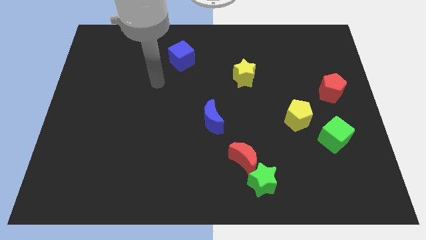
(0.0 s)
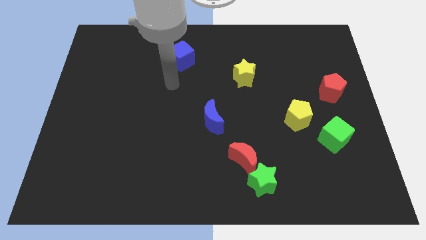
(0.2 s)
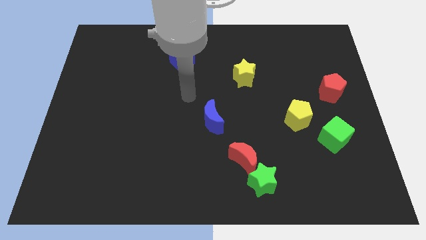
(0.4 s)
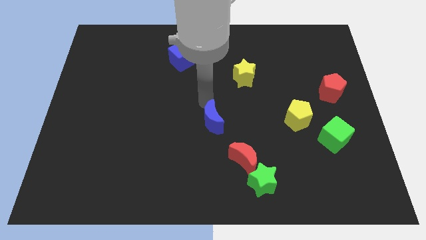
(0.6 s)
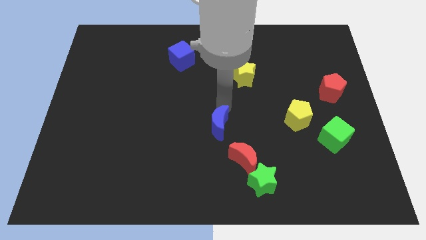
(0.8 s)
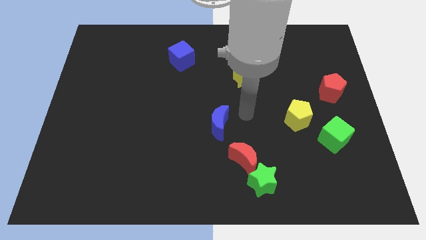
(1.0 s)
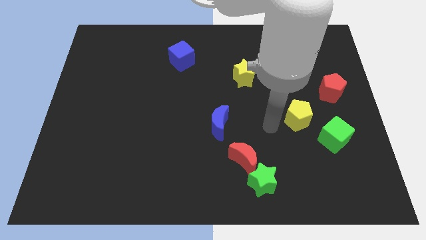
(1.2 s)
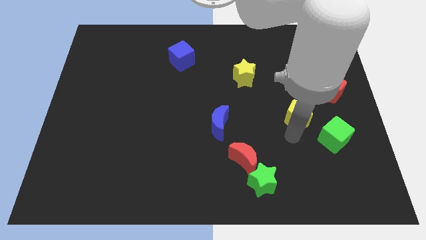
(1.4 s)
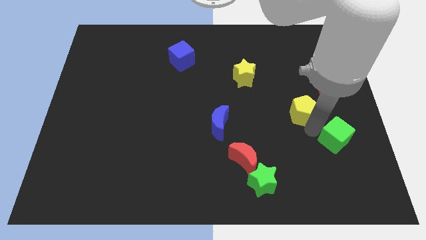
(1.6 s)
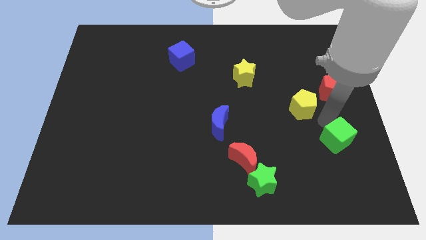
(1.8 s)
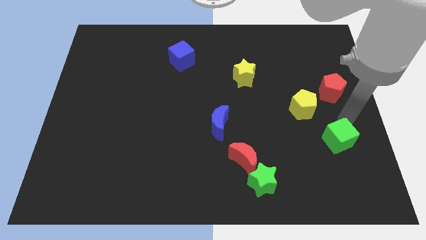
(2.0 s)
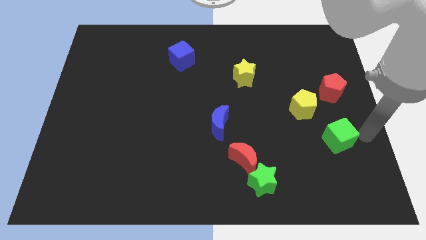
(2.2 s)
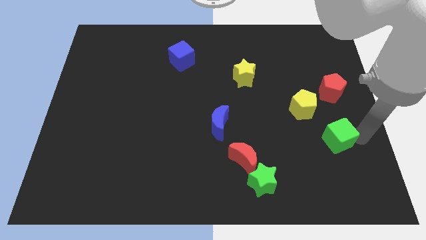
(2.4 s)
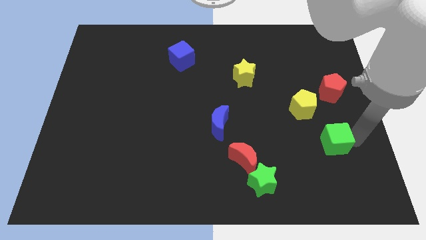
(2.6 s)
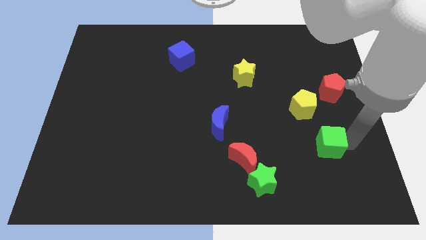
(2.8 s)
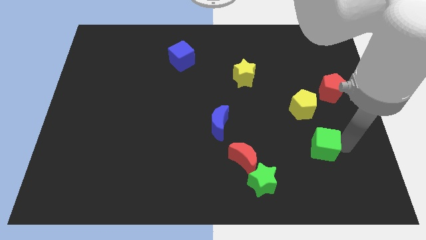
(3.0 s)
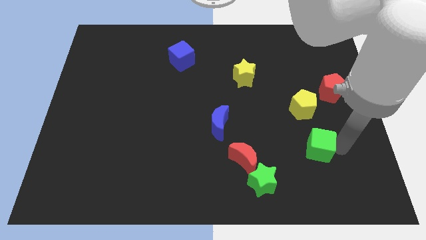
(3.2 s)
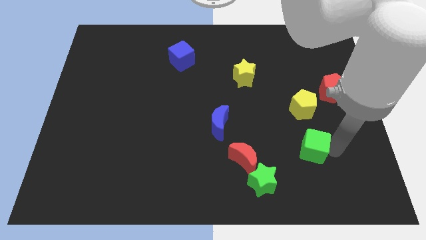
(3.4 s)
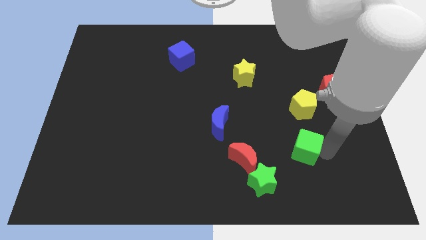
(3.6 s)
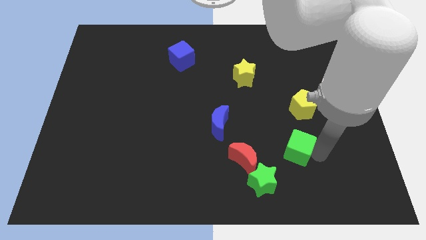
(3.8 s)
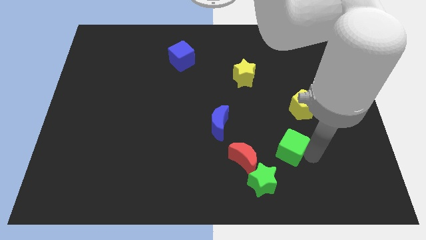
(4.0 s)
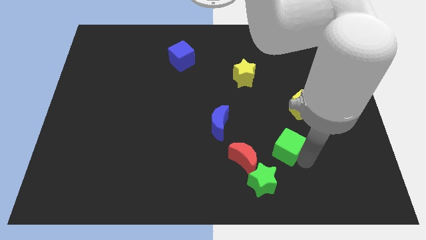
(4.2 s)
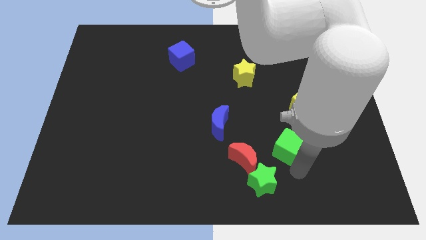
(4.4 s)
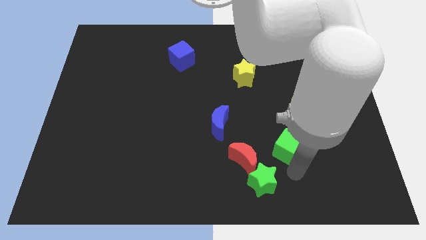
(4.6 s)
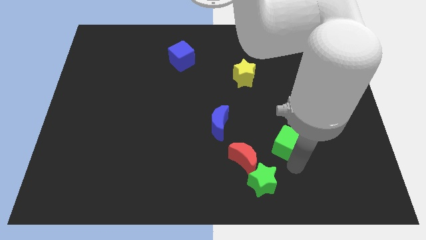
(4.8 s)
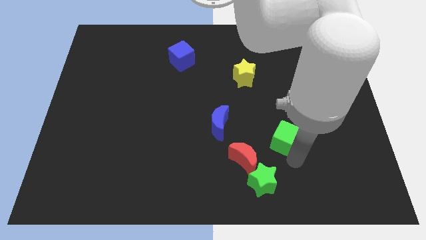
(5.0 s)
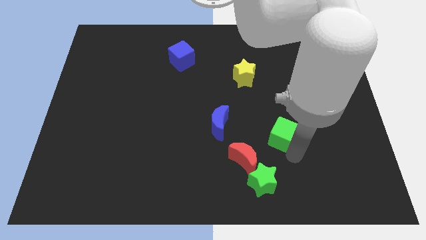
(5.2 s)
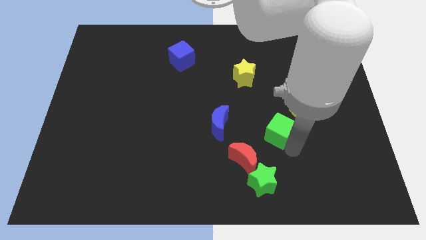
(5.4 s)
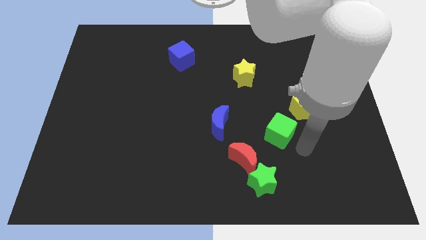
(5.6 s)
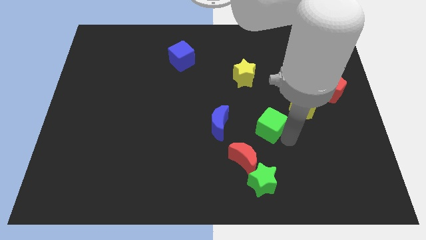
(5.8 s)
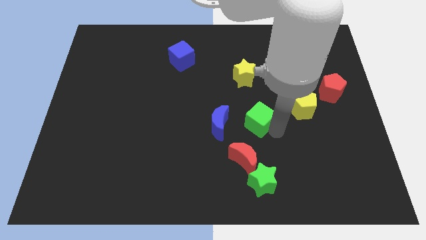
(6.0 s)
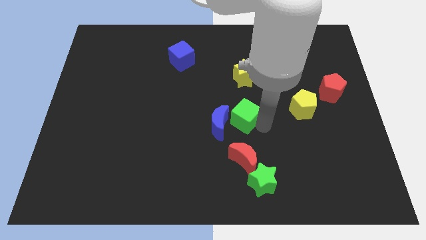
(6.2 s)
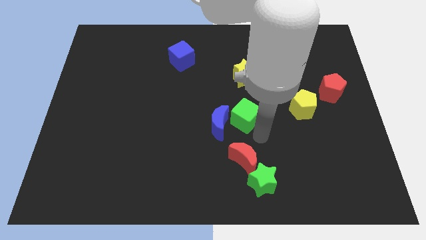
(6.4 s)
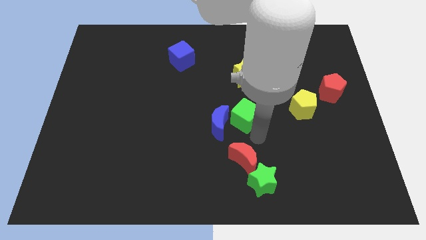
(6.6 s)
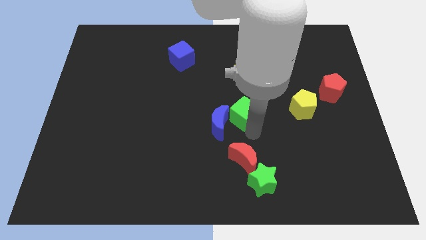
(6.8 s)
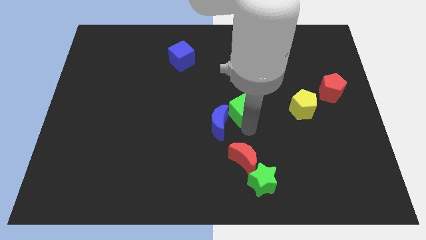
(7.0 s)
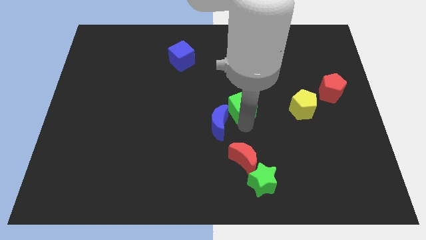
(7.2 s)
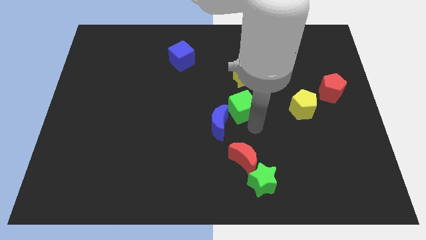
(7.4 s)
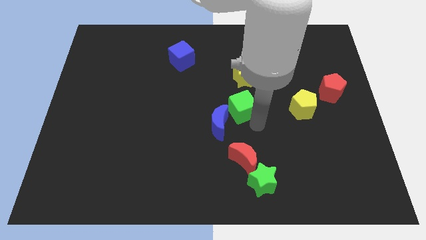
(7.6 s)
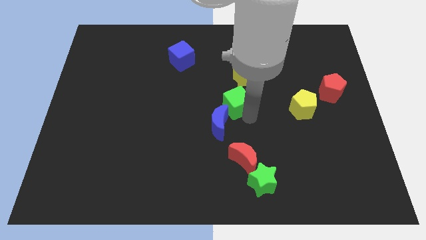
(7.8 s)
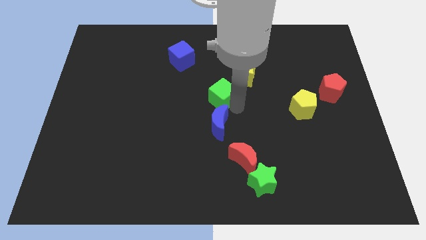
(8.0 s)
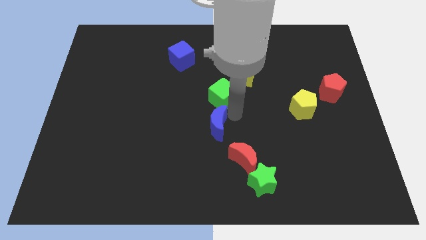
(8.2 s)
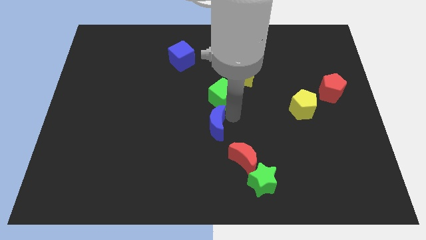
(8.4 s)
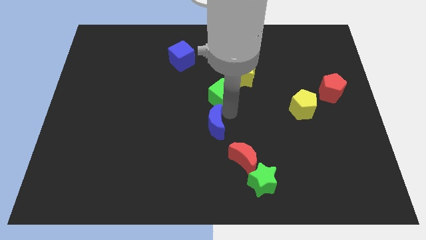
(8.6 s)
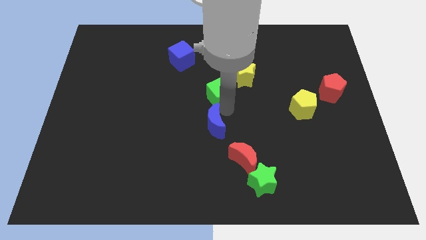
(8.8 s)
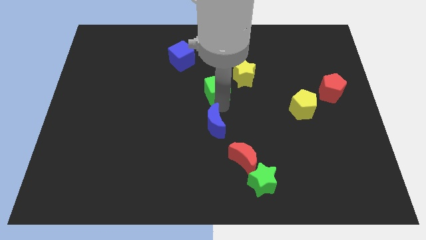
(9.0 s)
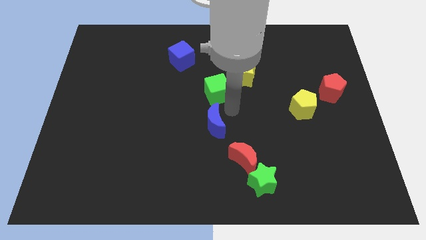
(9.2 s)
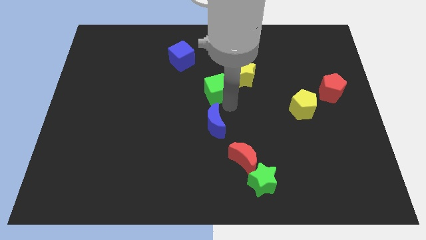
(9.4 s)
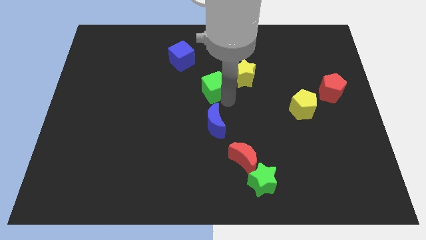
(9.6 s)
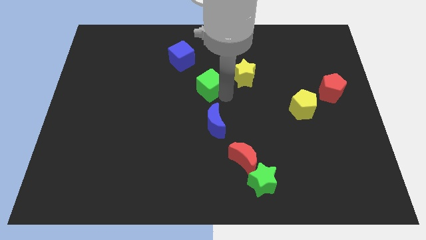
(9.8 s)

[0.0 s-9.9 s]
put the green cube to the bottom right side of the blue cube

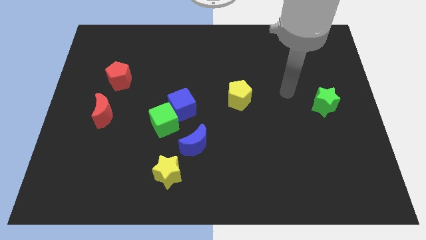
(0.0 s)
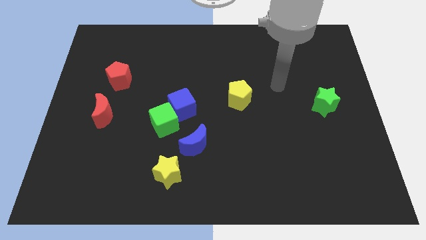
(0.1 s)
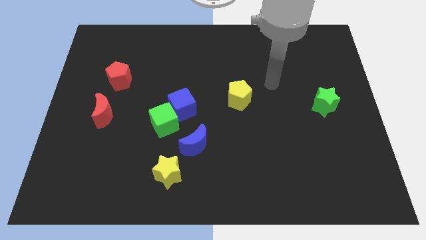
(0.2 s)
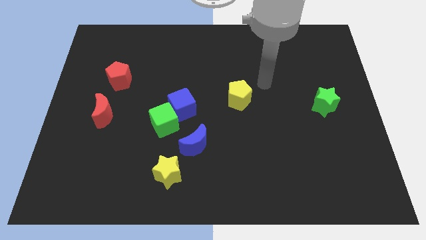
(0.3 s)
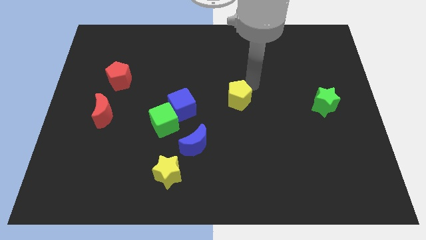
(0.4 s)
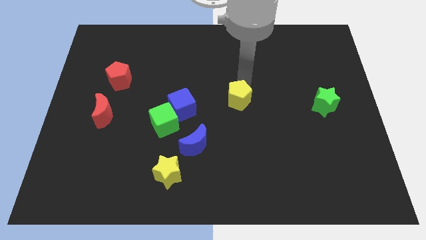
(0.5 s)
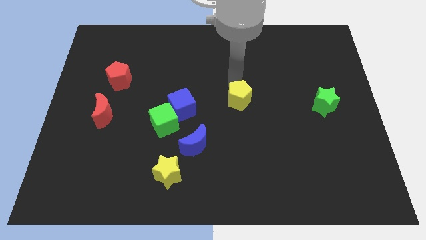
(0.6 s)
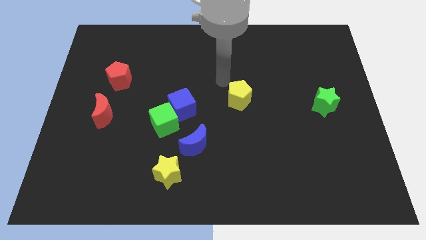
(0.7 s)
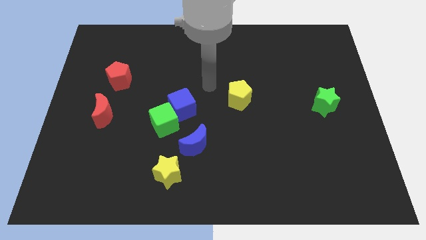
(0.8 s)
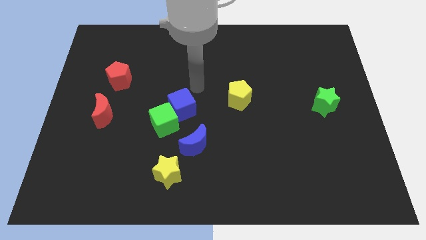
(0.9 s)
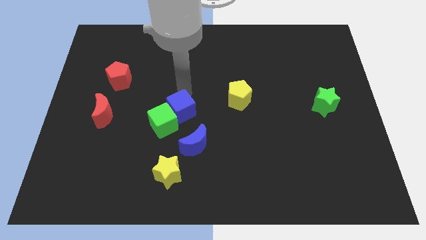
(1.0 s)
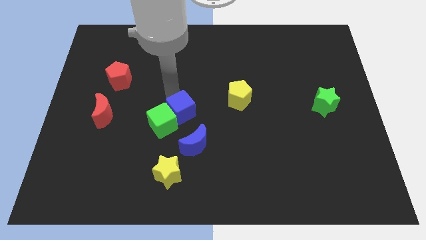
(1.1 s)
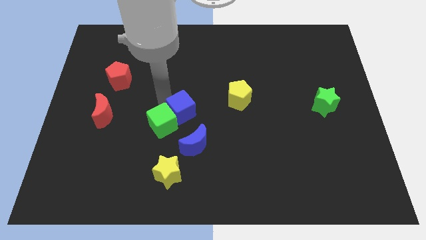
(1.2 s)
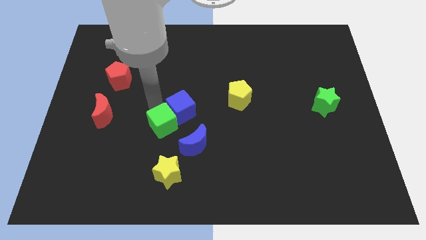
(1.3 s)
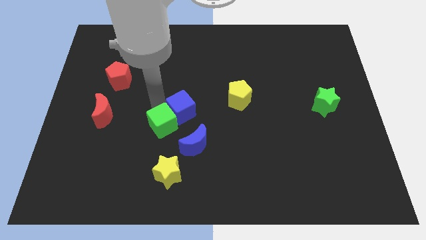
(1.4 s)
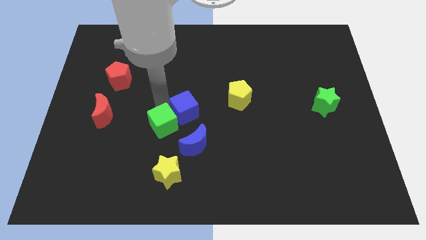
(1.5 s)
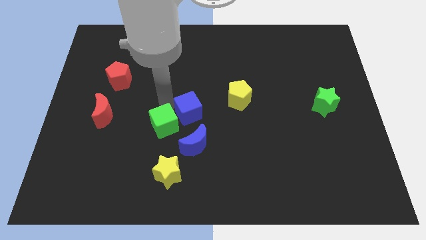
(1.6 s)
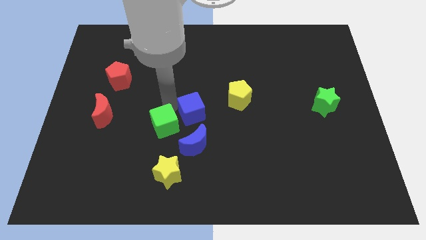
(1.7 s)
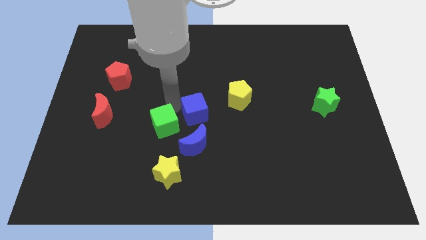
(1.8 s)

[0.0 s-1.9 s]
move the blue cube to the bottom left of the yellow pentagon
